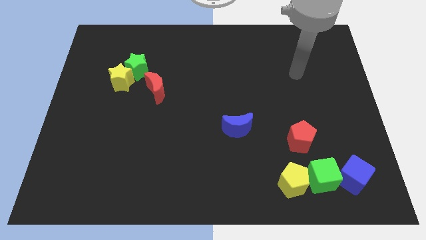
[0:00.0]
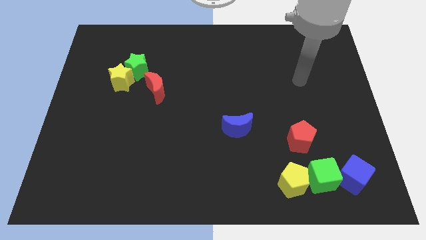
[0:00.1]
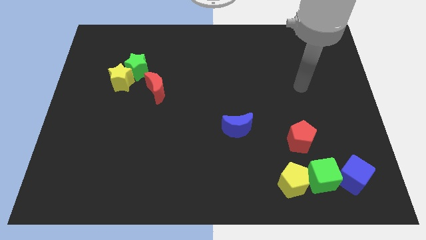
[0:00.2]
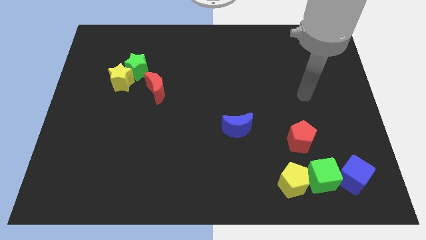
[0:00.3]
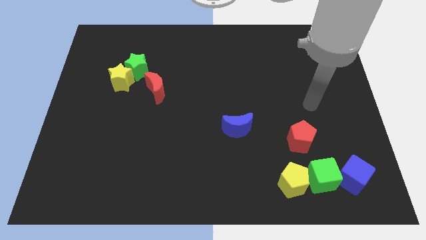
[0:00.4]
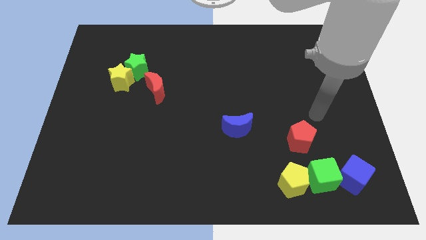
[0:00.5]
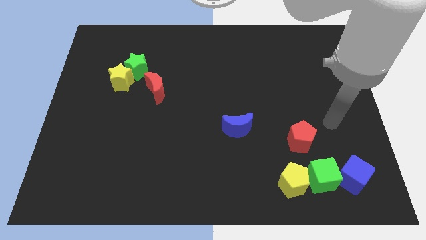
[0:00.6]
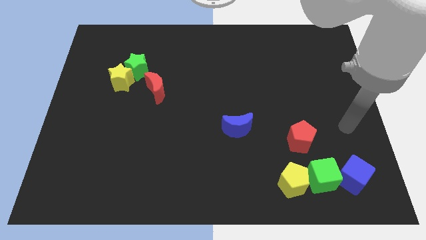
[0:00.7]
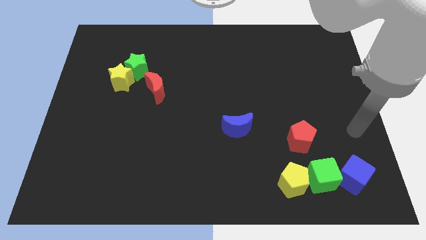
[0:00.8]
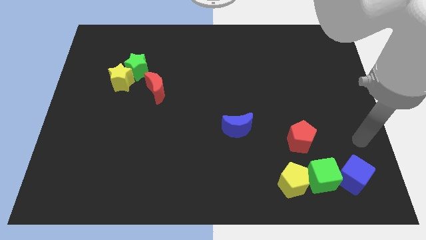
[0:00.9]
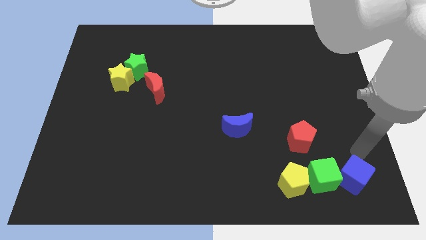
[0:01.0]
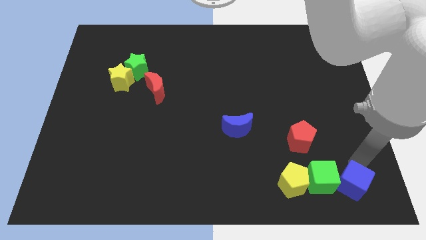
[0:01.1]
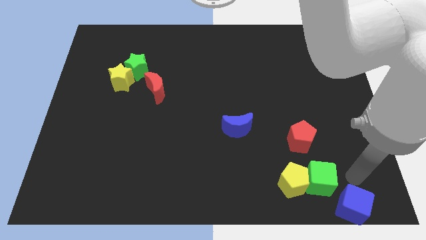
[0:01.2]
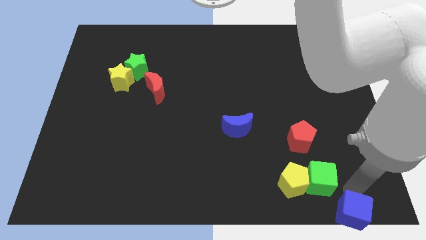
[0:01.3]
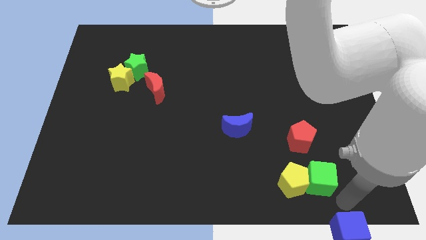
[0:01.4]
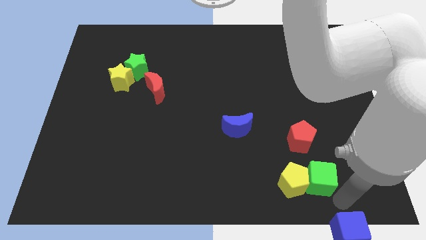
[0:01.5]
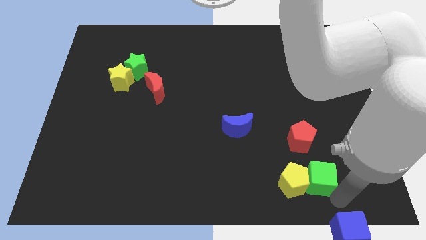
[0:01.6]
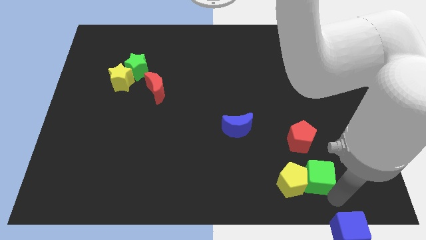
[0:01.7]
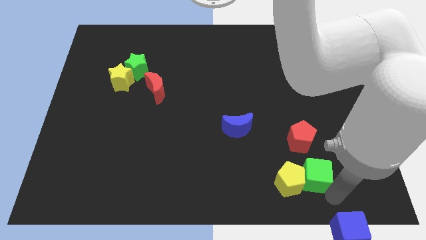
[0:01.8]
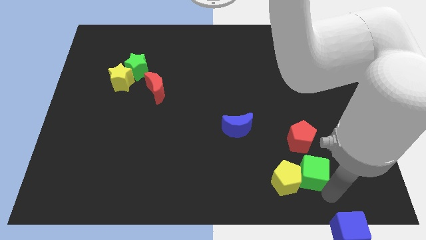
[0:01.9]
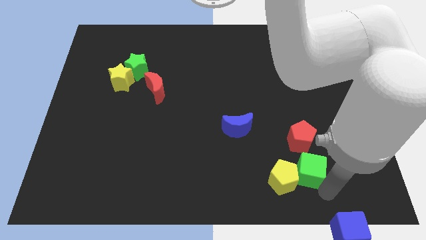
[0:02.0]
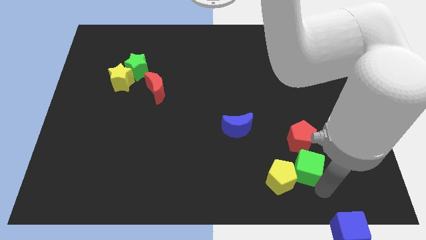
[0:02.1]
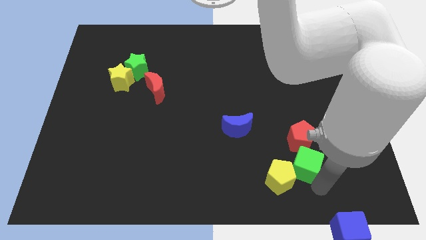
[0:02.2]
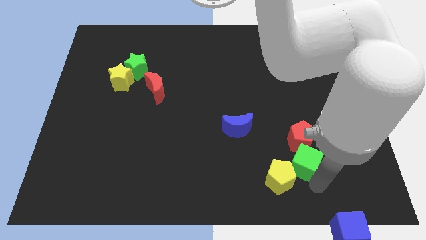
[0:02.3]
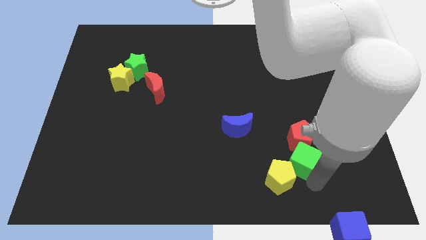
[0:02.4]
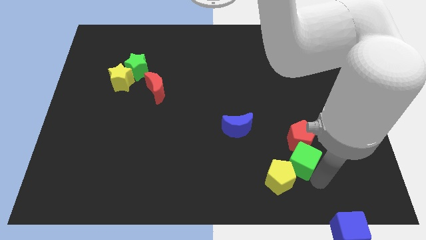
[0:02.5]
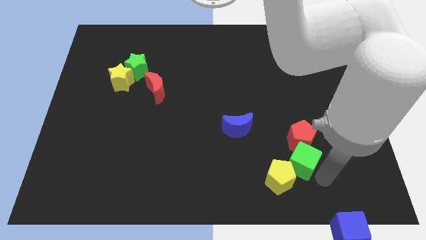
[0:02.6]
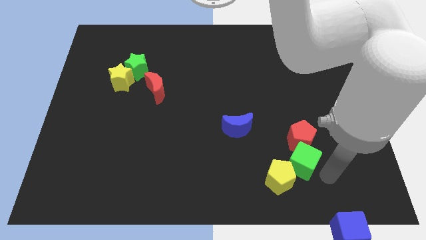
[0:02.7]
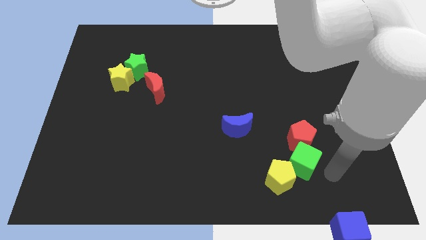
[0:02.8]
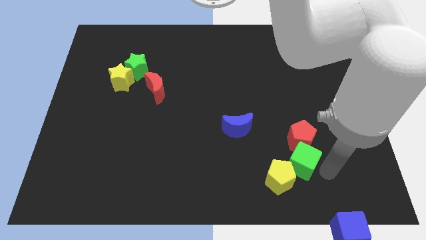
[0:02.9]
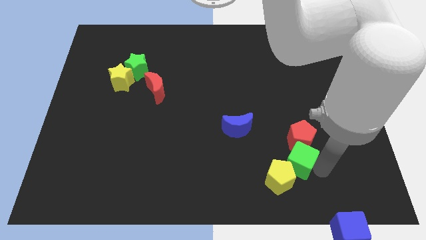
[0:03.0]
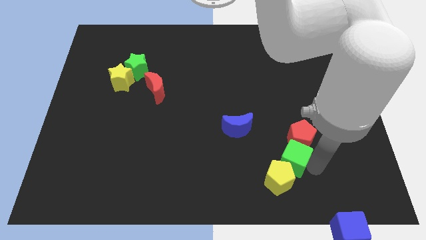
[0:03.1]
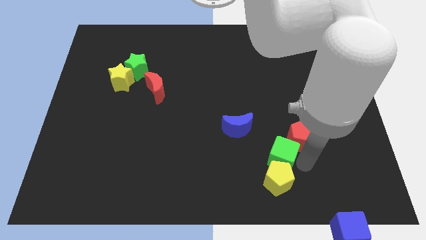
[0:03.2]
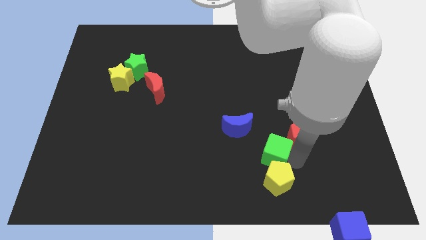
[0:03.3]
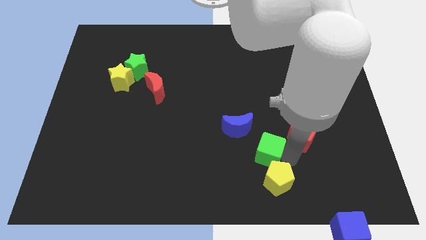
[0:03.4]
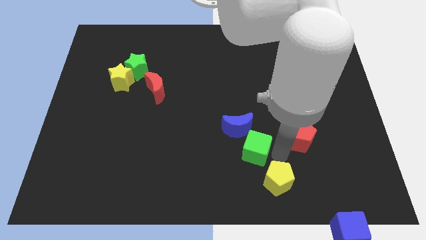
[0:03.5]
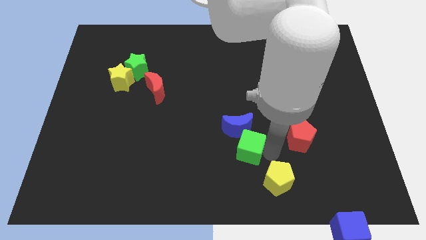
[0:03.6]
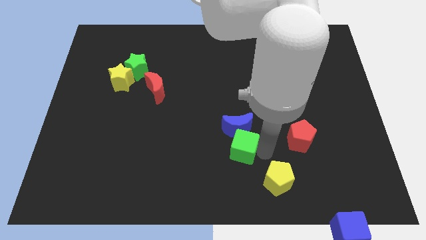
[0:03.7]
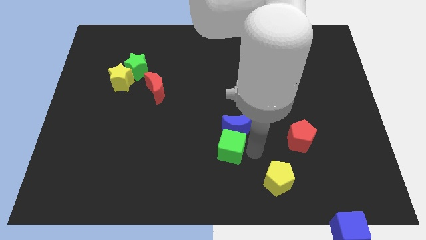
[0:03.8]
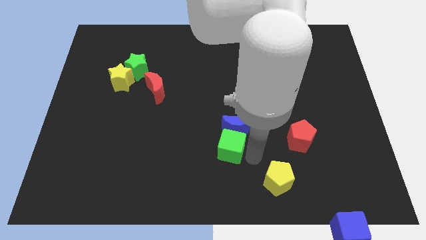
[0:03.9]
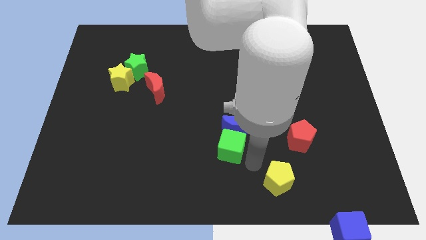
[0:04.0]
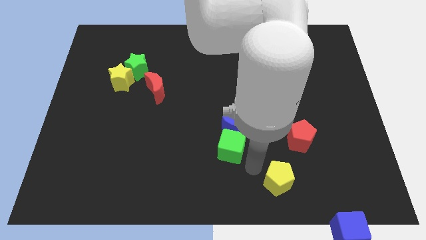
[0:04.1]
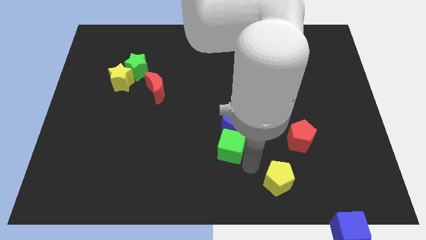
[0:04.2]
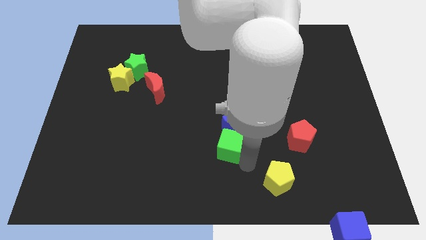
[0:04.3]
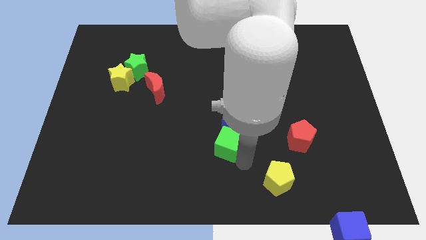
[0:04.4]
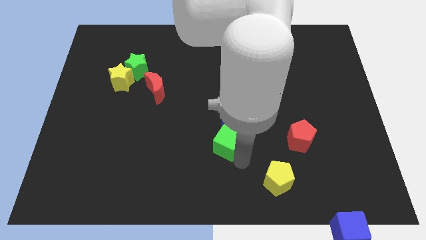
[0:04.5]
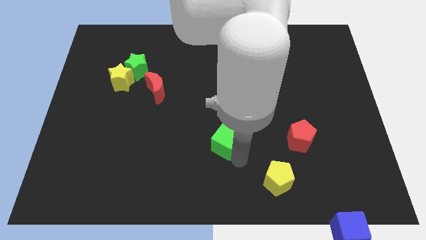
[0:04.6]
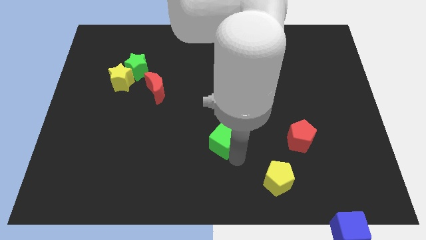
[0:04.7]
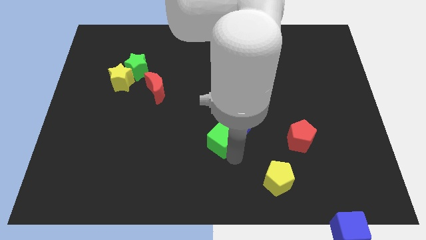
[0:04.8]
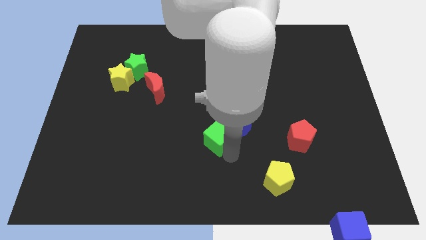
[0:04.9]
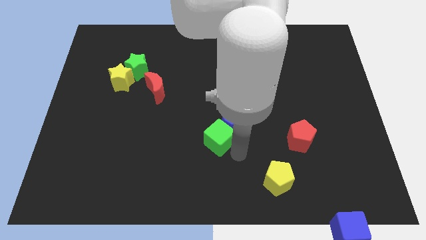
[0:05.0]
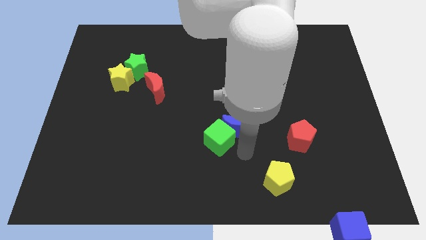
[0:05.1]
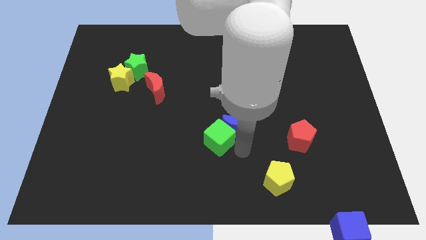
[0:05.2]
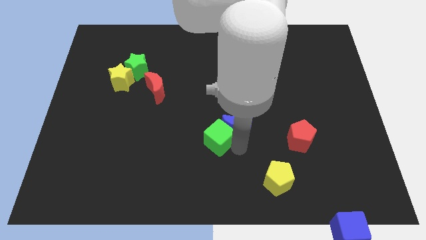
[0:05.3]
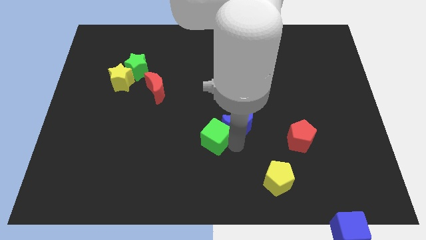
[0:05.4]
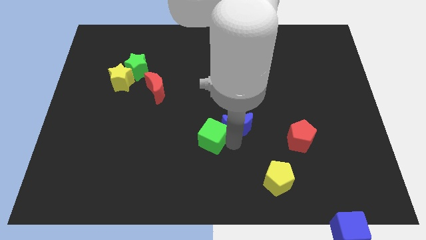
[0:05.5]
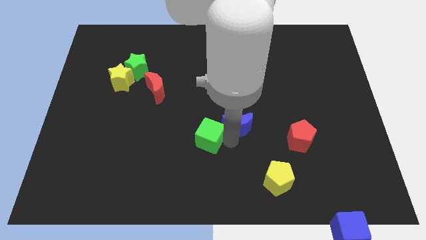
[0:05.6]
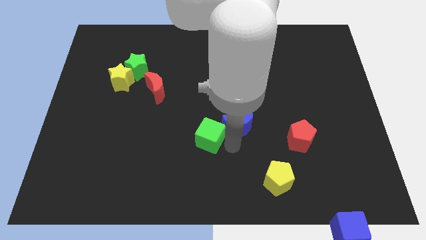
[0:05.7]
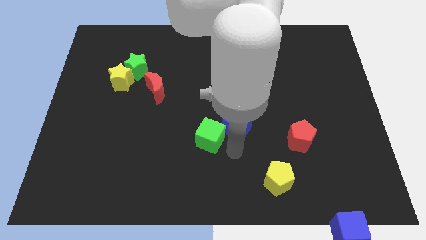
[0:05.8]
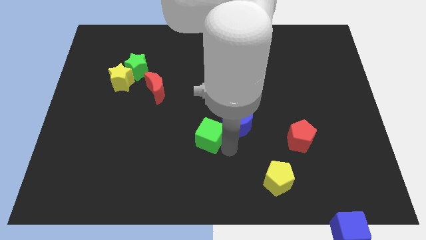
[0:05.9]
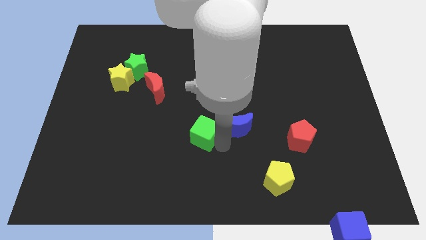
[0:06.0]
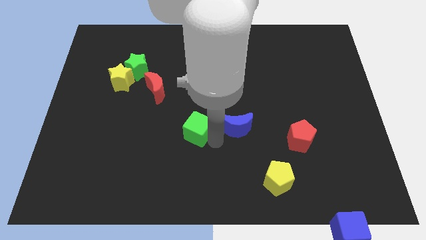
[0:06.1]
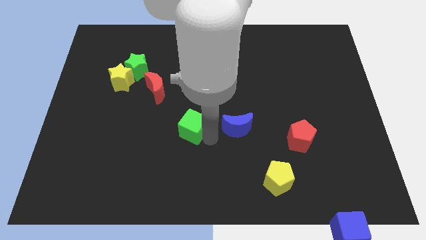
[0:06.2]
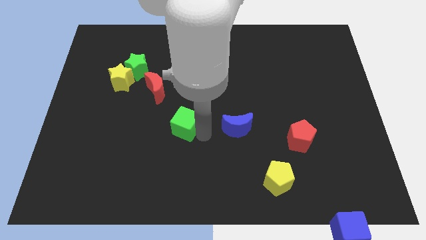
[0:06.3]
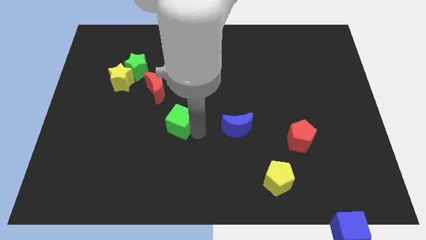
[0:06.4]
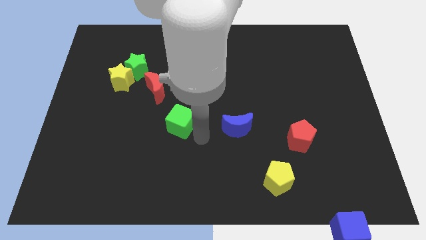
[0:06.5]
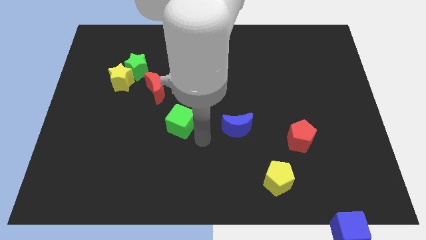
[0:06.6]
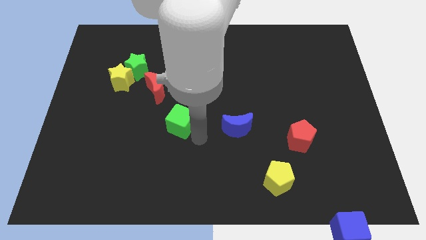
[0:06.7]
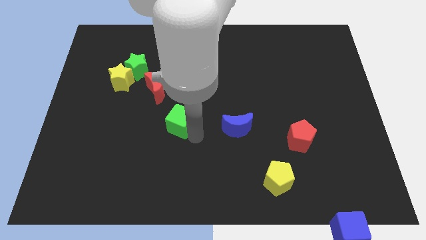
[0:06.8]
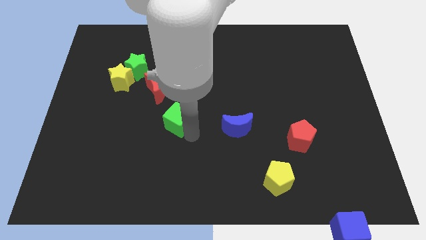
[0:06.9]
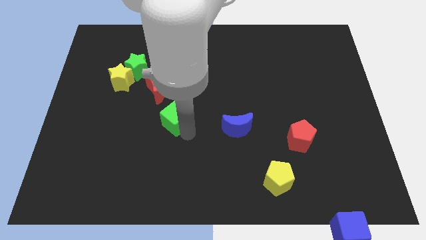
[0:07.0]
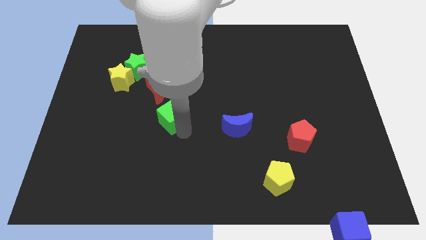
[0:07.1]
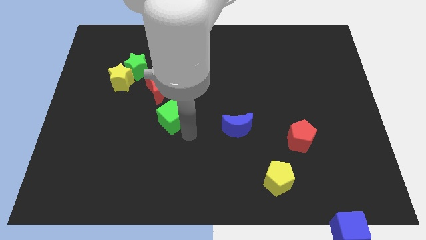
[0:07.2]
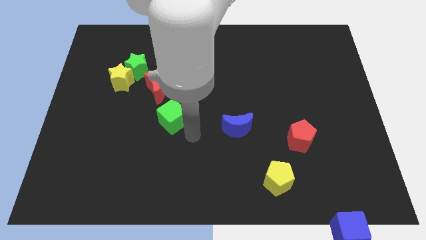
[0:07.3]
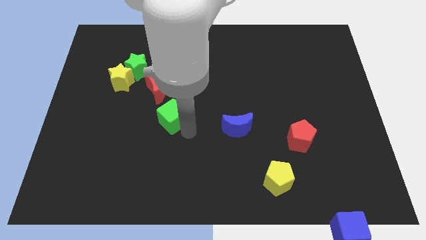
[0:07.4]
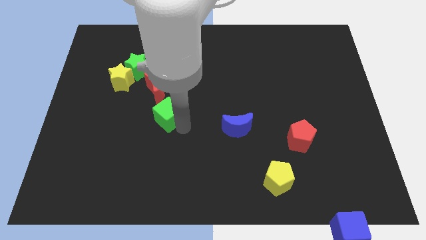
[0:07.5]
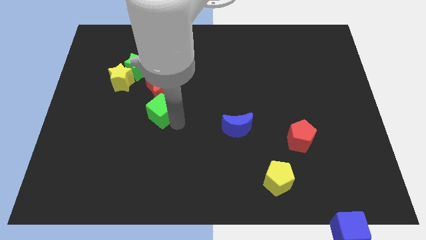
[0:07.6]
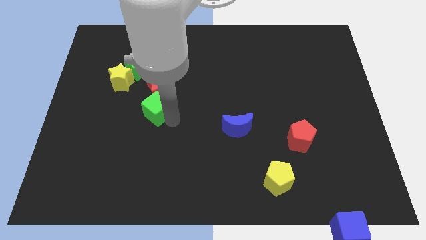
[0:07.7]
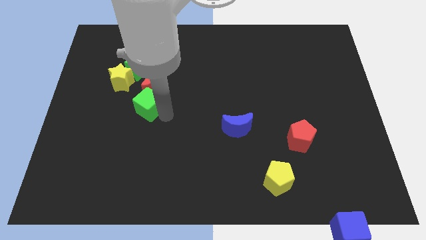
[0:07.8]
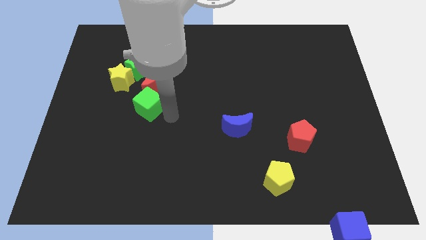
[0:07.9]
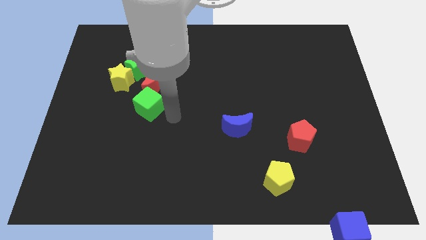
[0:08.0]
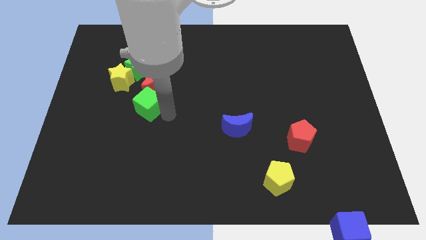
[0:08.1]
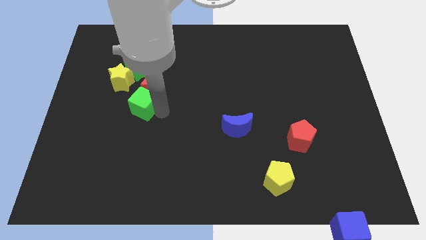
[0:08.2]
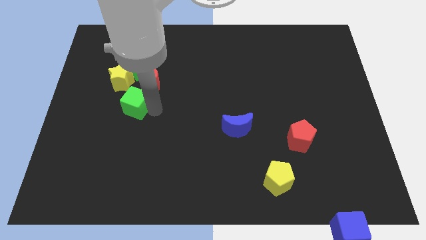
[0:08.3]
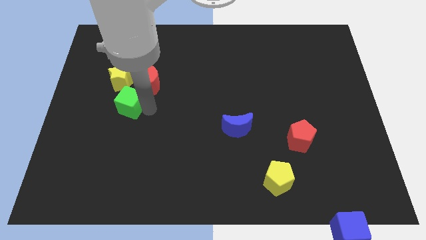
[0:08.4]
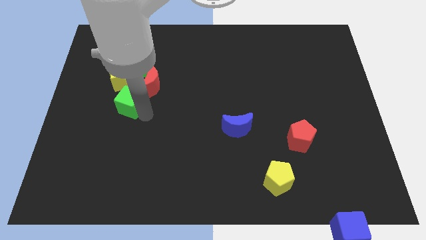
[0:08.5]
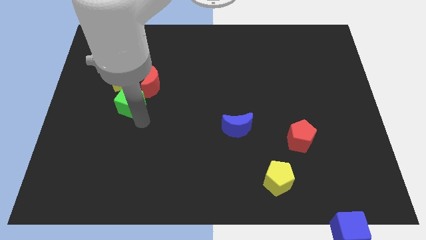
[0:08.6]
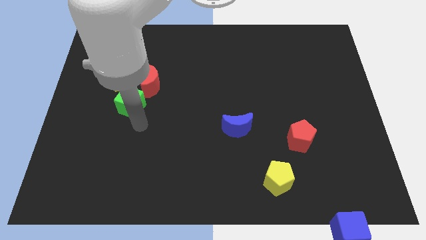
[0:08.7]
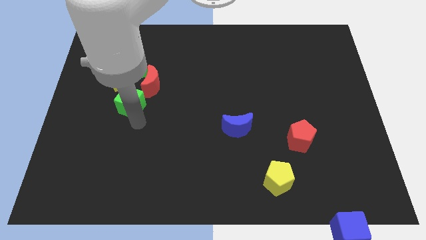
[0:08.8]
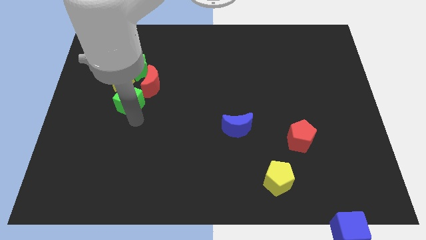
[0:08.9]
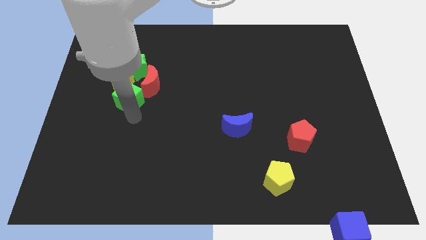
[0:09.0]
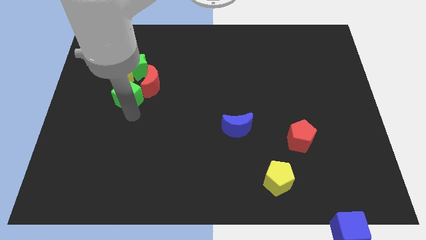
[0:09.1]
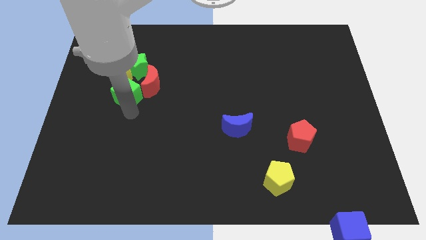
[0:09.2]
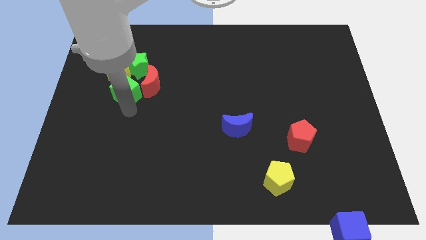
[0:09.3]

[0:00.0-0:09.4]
push the green cube close to the yellow star
